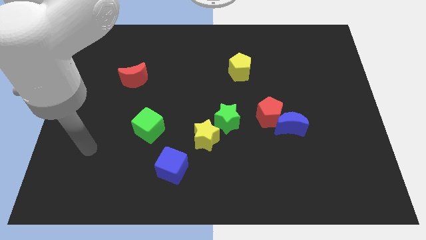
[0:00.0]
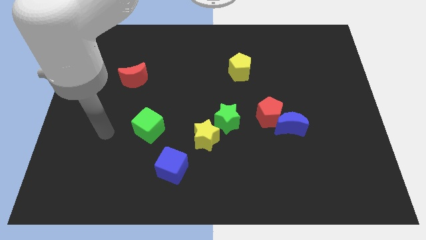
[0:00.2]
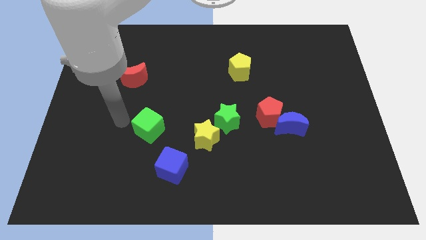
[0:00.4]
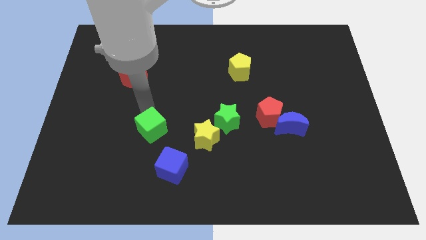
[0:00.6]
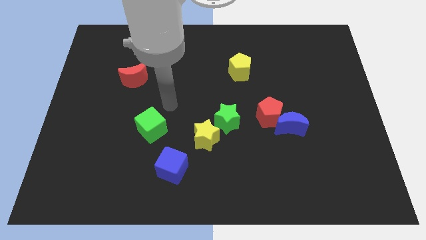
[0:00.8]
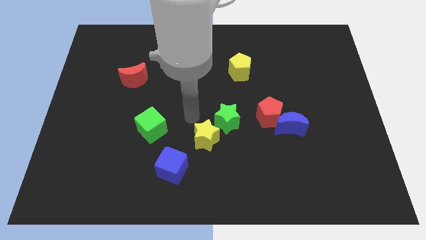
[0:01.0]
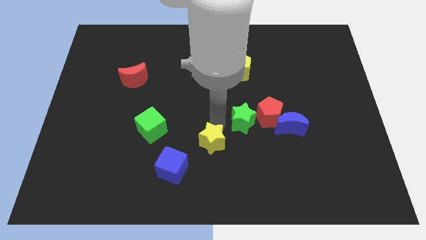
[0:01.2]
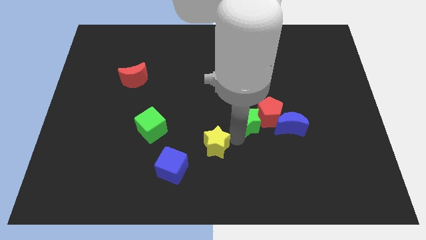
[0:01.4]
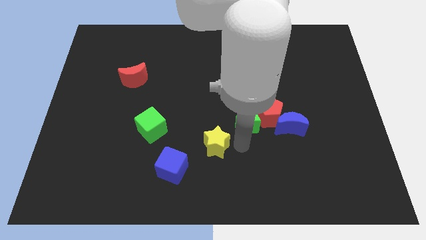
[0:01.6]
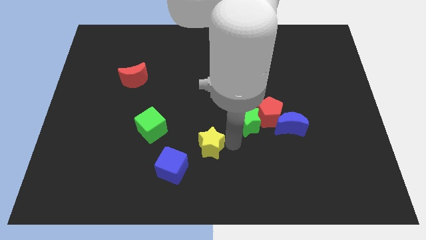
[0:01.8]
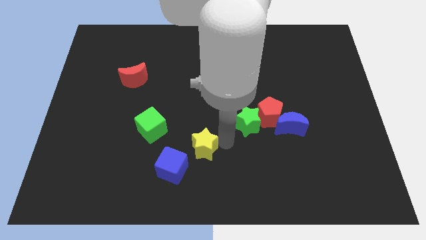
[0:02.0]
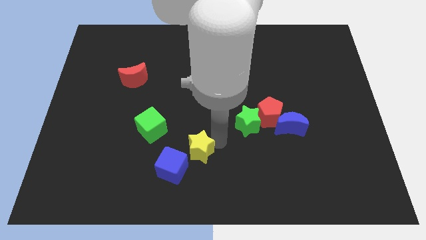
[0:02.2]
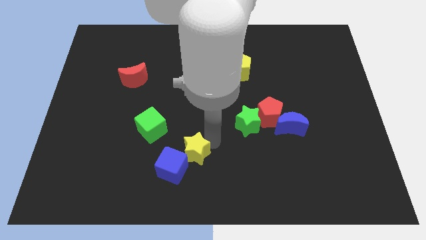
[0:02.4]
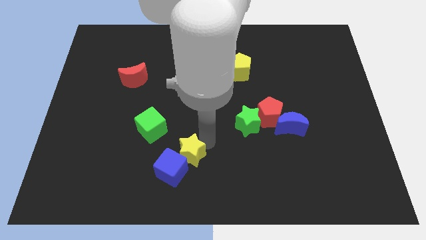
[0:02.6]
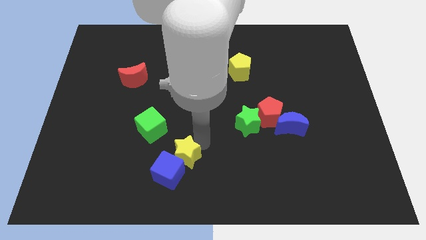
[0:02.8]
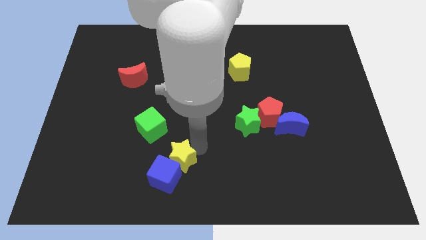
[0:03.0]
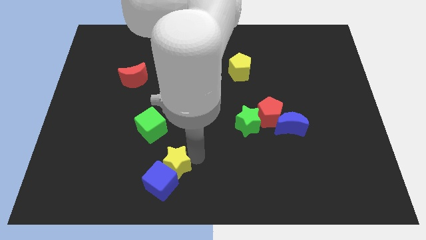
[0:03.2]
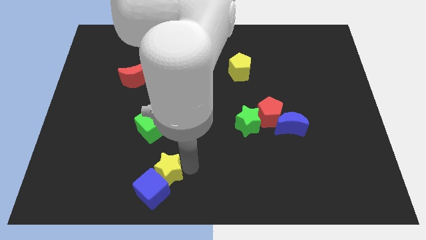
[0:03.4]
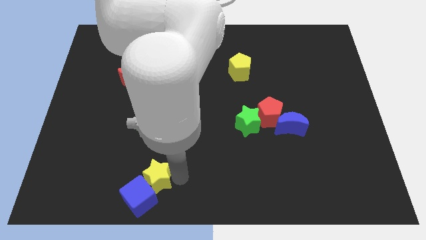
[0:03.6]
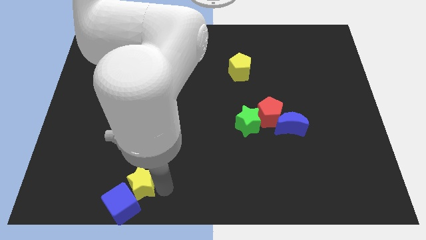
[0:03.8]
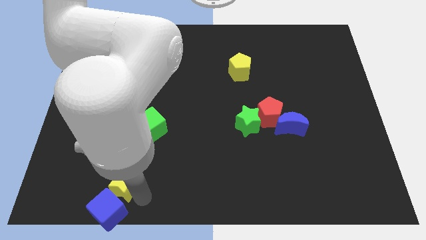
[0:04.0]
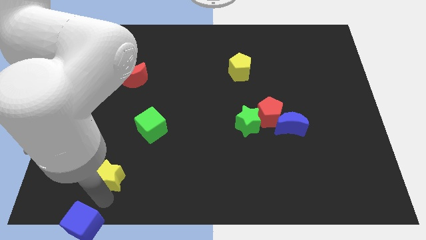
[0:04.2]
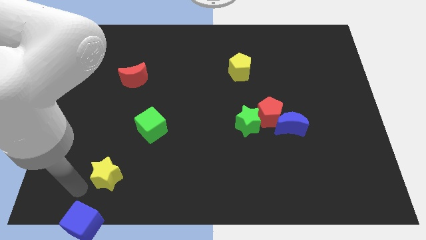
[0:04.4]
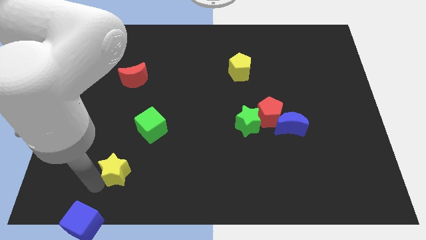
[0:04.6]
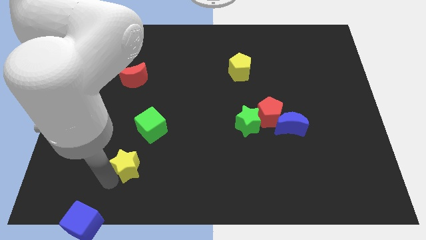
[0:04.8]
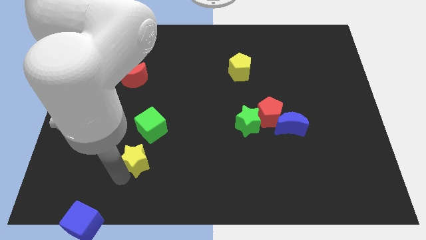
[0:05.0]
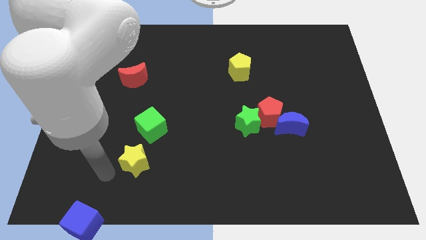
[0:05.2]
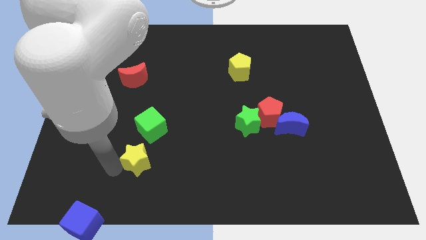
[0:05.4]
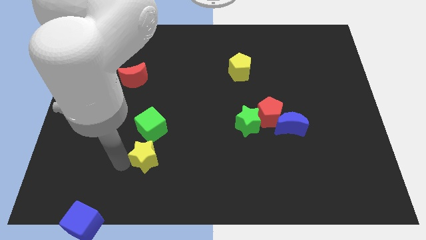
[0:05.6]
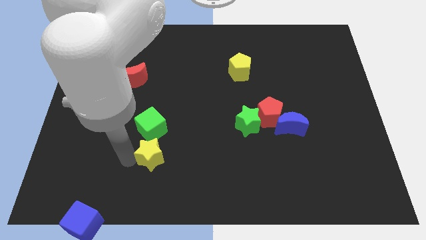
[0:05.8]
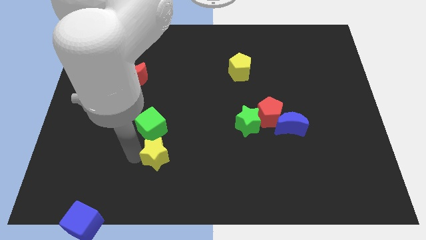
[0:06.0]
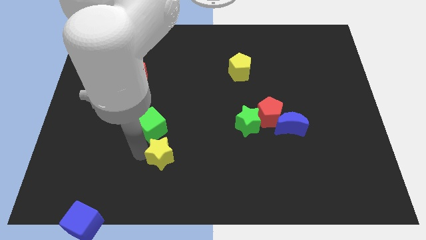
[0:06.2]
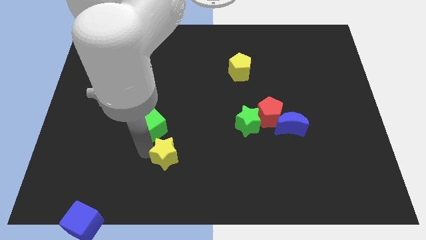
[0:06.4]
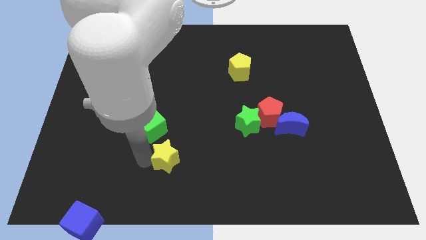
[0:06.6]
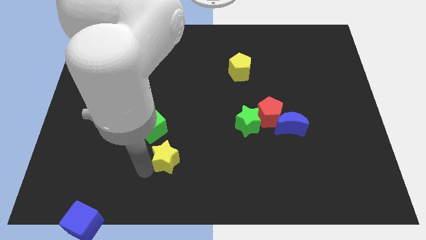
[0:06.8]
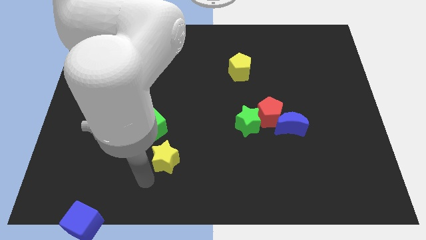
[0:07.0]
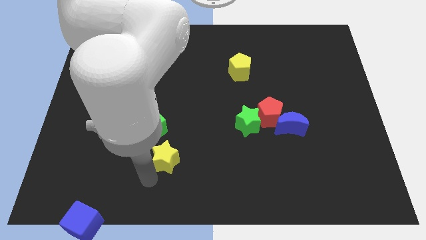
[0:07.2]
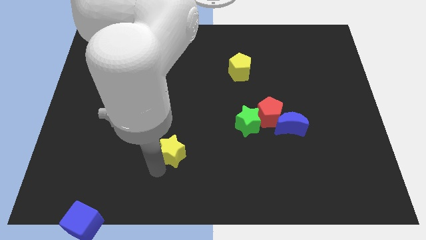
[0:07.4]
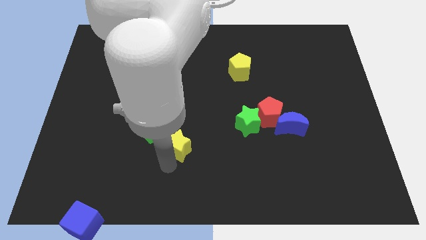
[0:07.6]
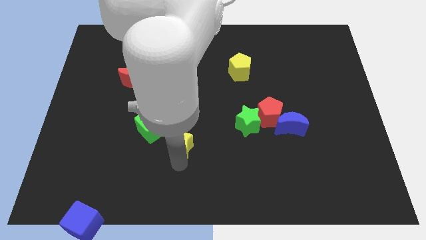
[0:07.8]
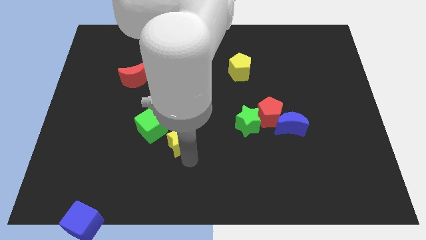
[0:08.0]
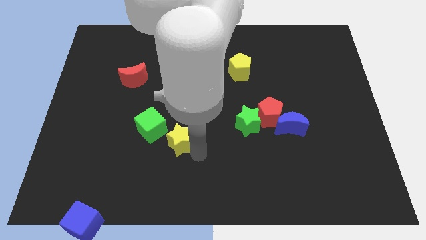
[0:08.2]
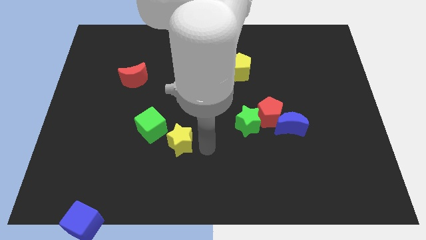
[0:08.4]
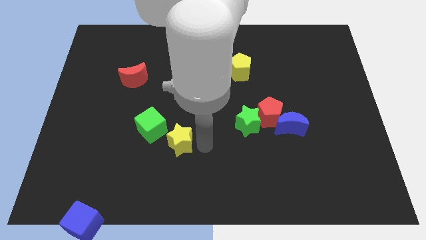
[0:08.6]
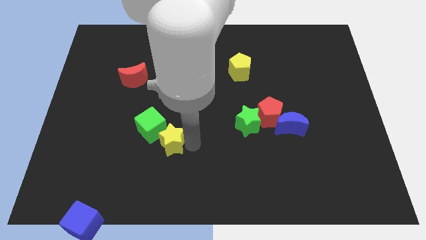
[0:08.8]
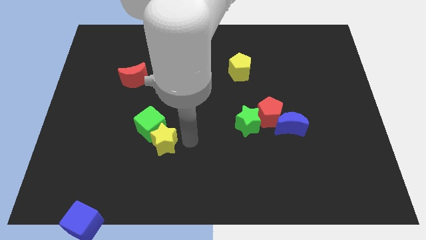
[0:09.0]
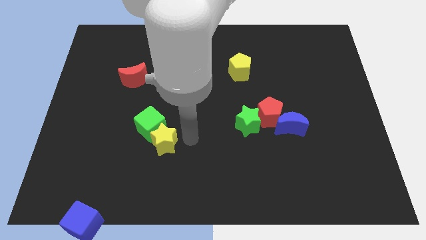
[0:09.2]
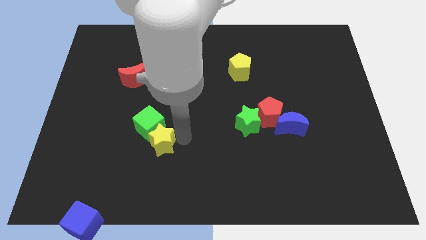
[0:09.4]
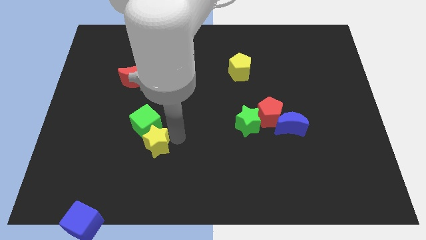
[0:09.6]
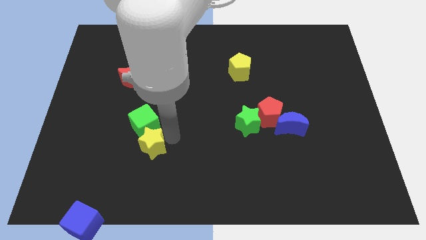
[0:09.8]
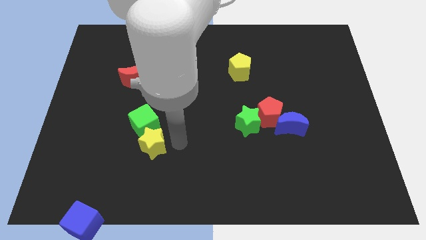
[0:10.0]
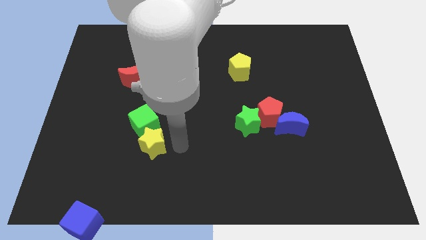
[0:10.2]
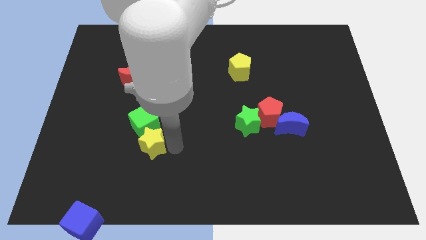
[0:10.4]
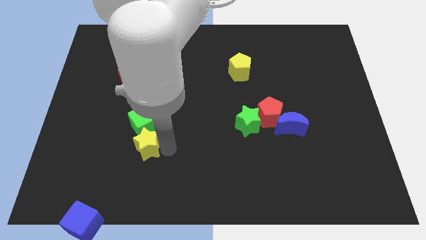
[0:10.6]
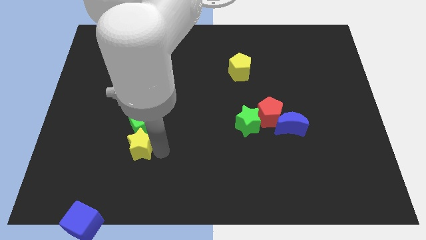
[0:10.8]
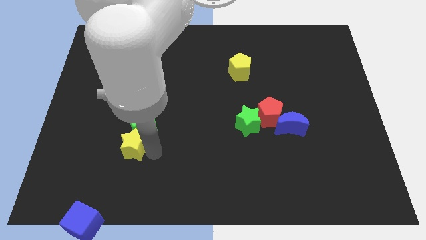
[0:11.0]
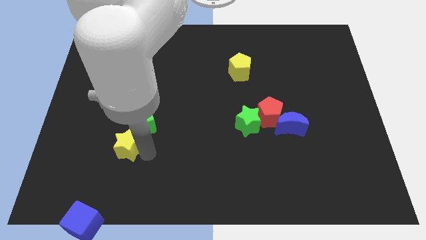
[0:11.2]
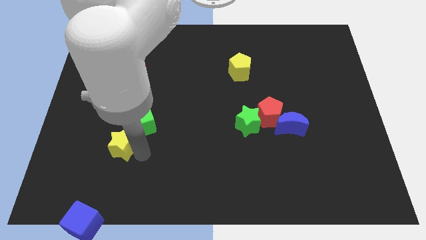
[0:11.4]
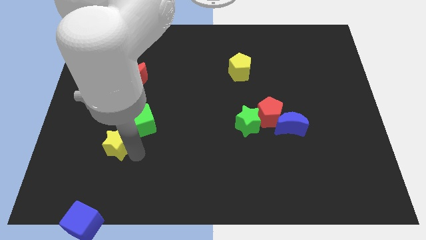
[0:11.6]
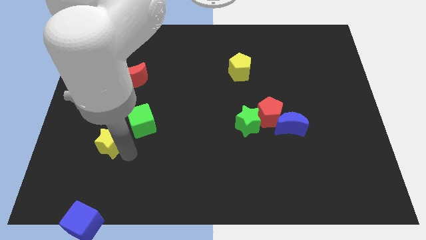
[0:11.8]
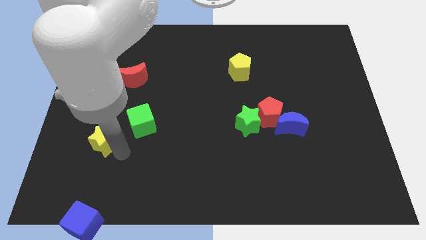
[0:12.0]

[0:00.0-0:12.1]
slide the yellow star to the left side of the green cube
